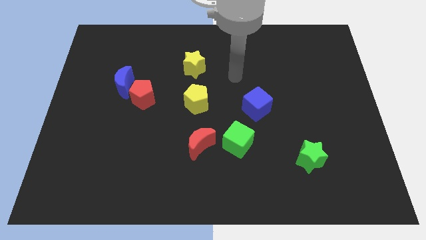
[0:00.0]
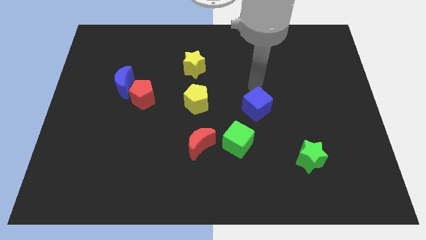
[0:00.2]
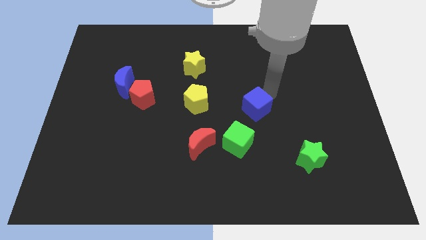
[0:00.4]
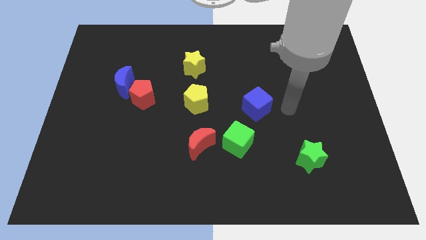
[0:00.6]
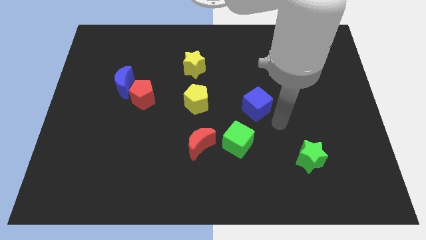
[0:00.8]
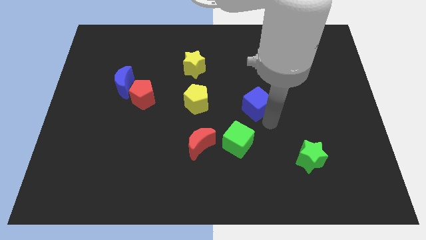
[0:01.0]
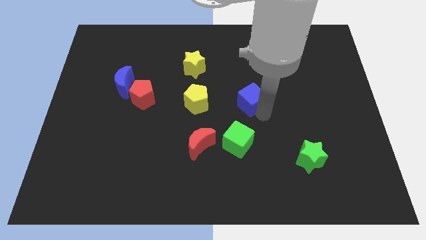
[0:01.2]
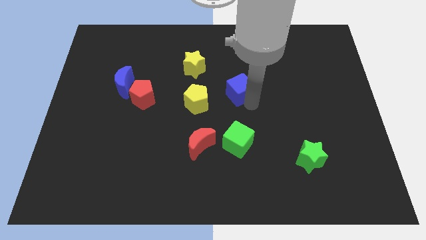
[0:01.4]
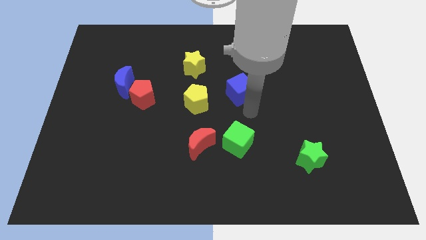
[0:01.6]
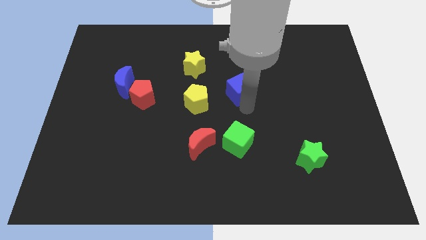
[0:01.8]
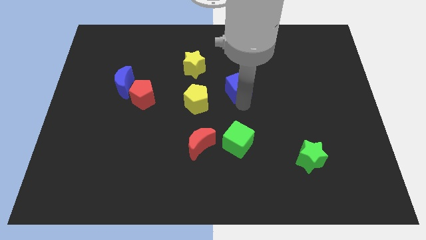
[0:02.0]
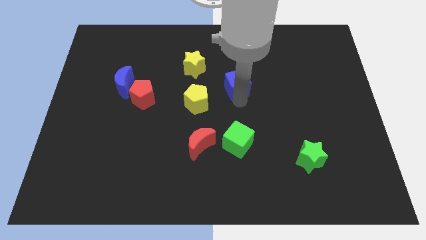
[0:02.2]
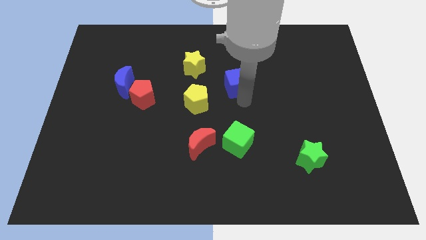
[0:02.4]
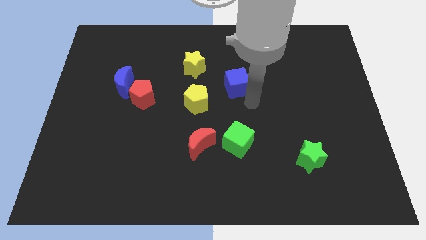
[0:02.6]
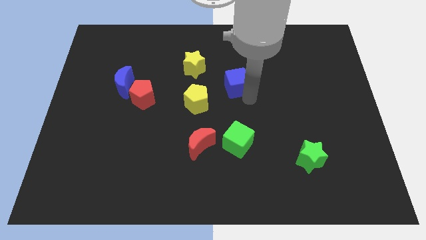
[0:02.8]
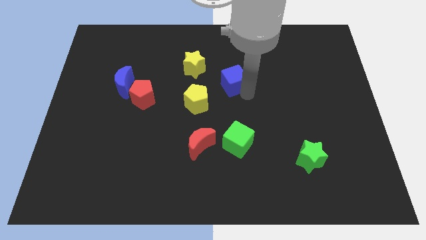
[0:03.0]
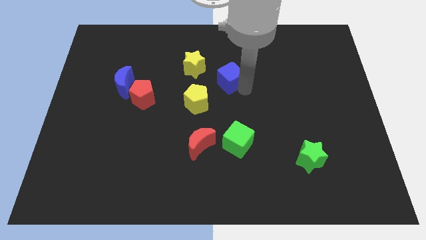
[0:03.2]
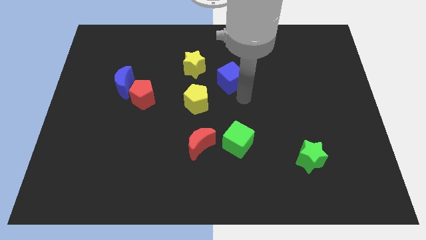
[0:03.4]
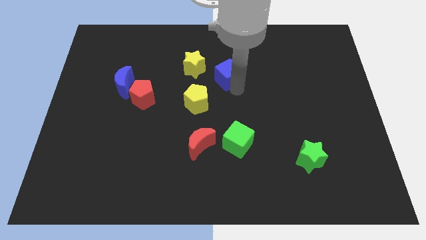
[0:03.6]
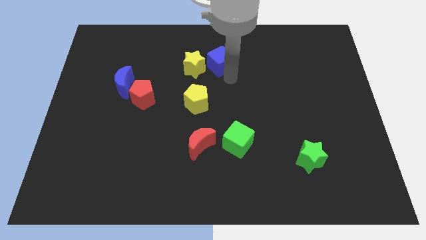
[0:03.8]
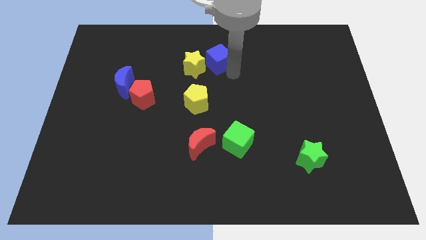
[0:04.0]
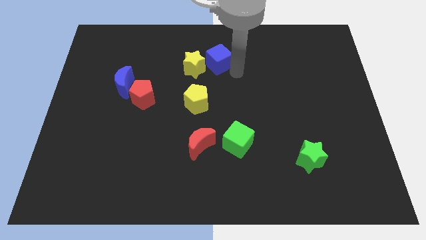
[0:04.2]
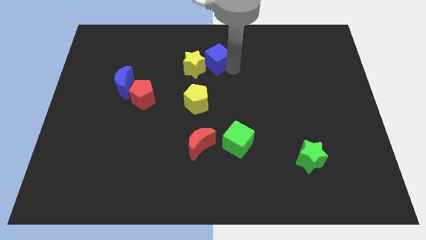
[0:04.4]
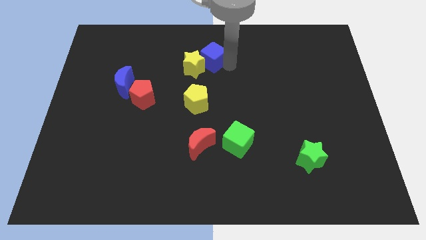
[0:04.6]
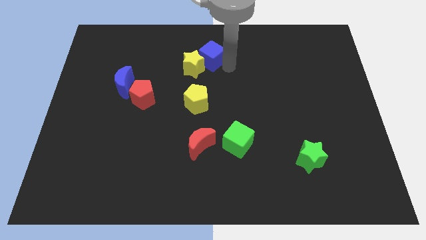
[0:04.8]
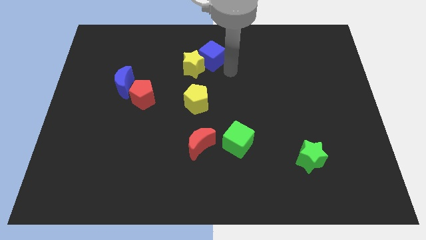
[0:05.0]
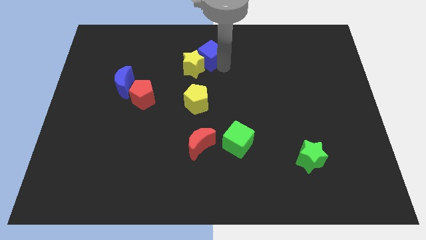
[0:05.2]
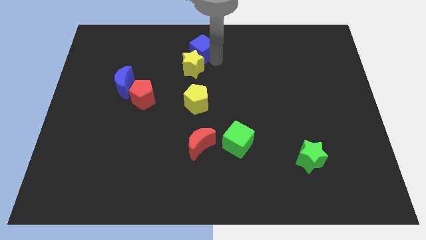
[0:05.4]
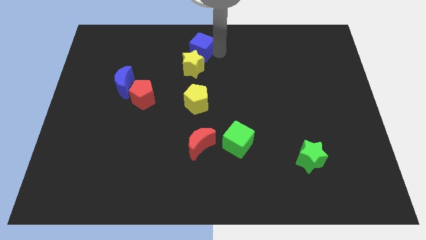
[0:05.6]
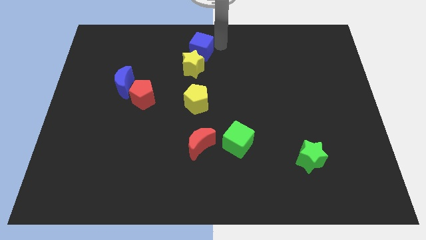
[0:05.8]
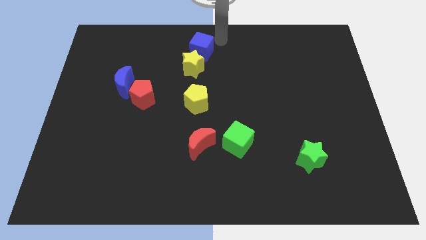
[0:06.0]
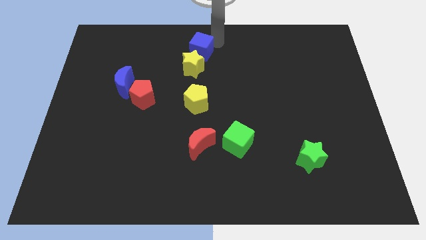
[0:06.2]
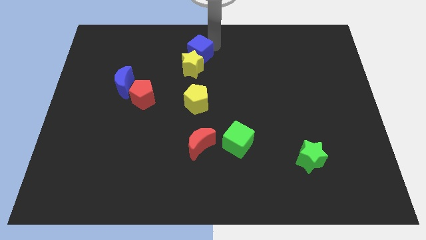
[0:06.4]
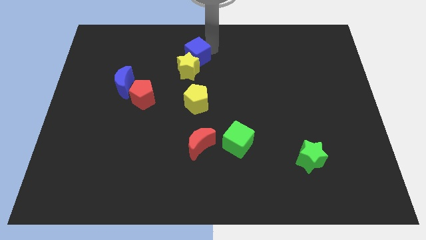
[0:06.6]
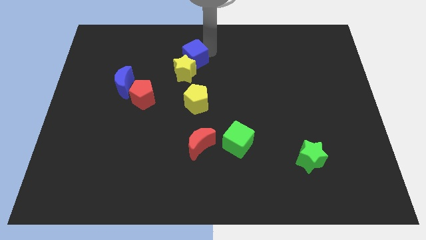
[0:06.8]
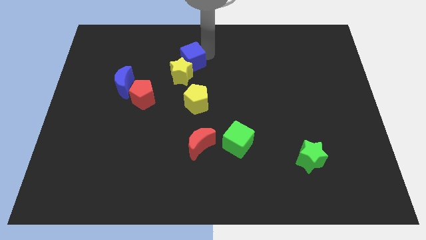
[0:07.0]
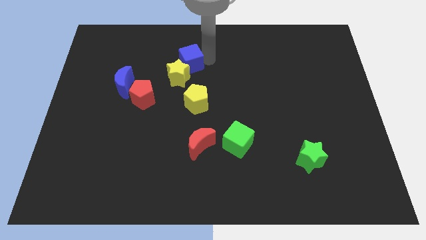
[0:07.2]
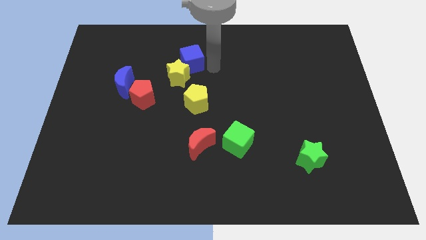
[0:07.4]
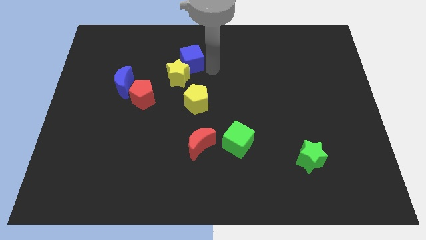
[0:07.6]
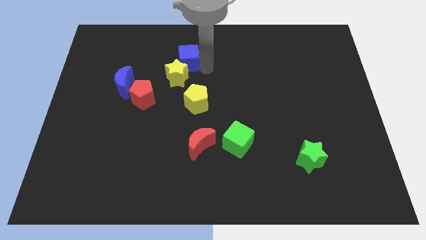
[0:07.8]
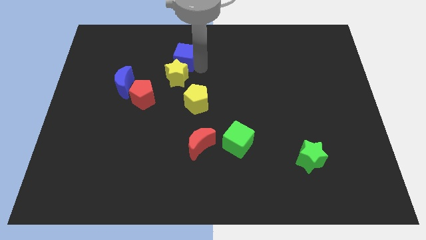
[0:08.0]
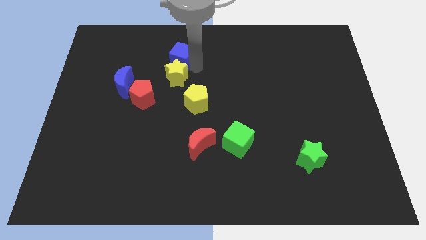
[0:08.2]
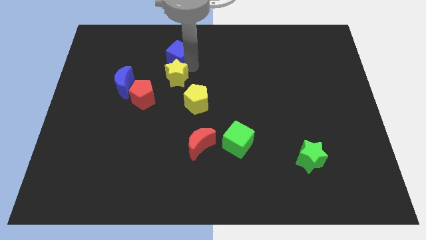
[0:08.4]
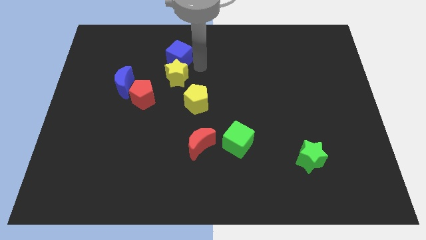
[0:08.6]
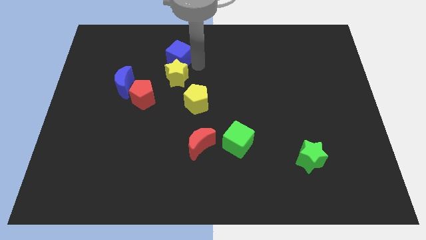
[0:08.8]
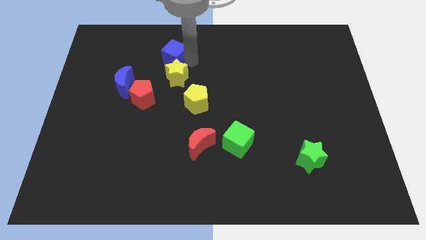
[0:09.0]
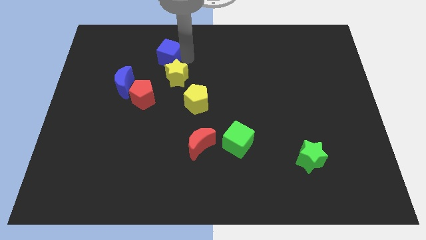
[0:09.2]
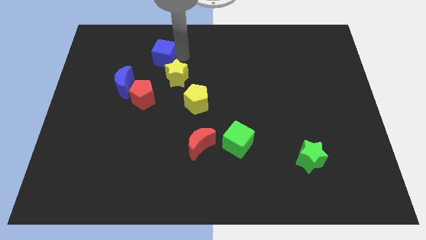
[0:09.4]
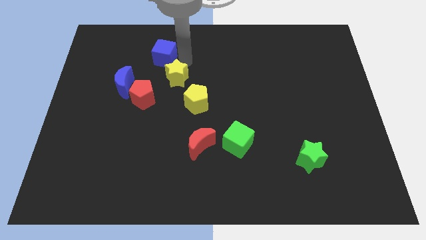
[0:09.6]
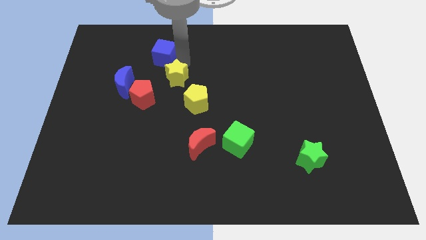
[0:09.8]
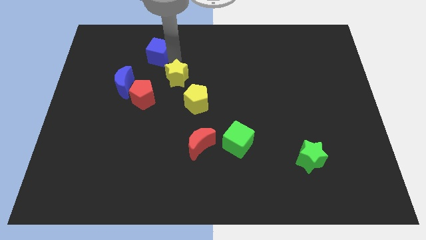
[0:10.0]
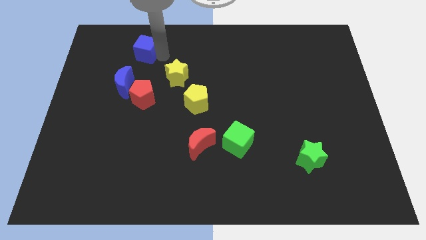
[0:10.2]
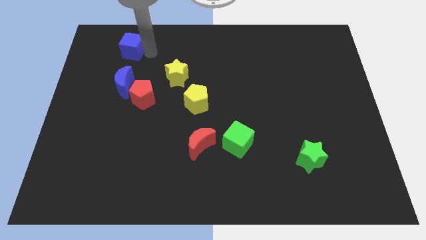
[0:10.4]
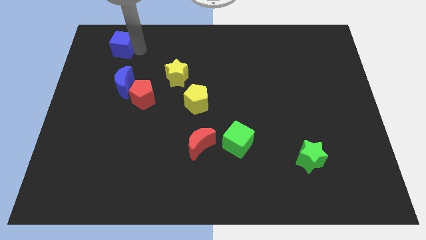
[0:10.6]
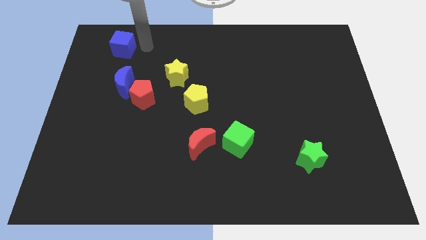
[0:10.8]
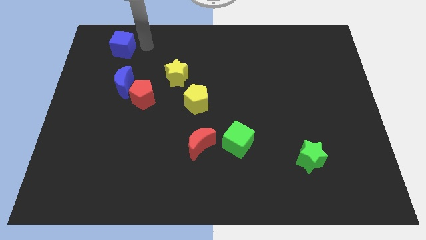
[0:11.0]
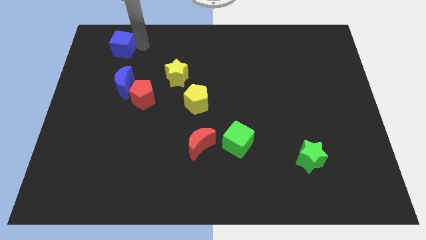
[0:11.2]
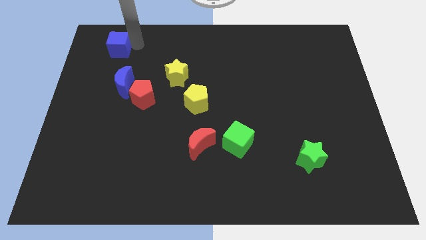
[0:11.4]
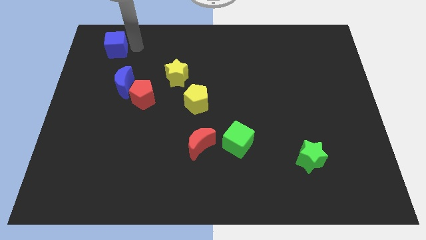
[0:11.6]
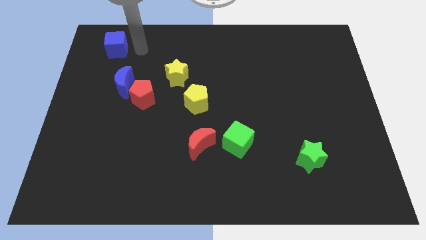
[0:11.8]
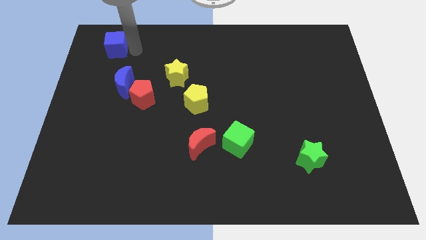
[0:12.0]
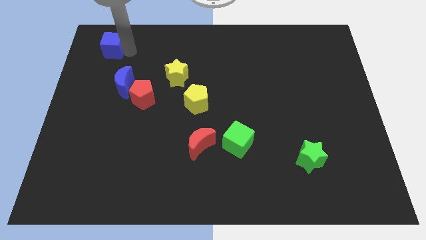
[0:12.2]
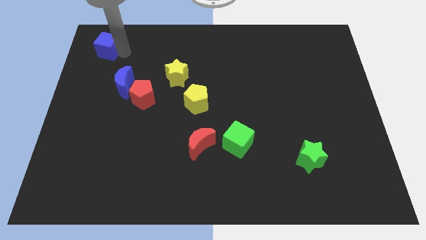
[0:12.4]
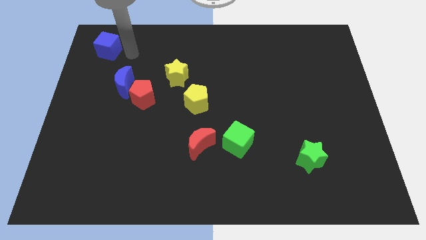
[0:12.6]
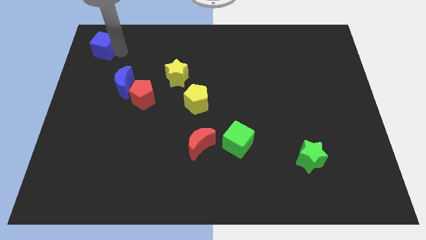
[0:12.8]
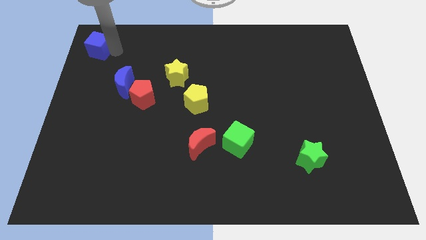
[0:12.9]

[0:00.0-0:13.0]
slide the blue cube to the top left corner
